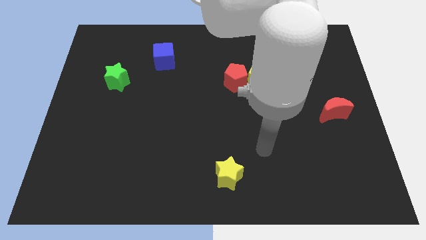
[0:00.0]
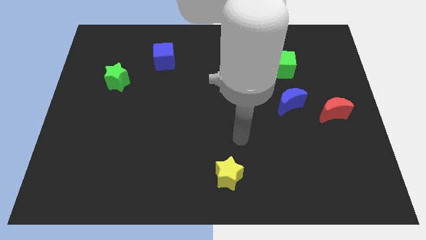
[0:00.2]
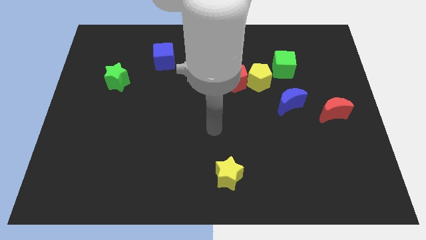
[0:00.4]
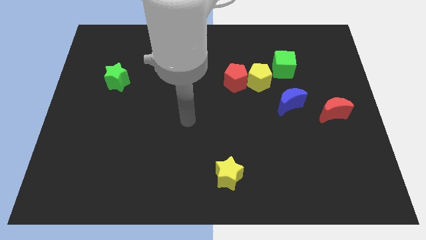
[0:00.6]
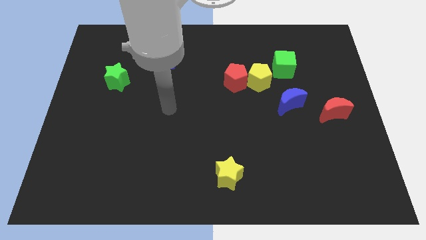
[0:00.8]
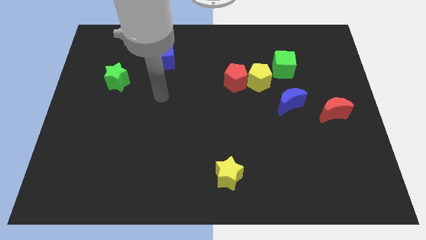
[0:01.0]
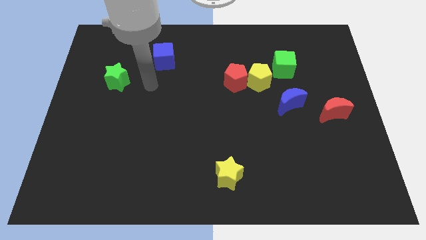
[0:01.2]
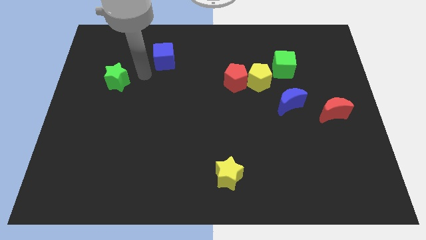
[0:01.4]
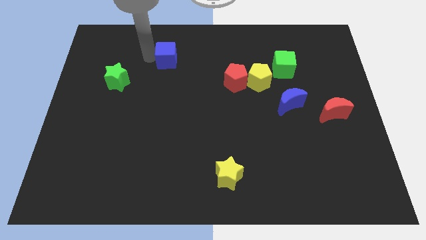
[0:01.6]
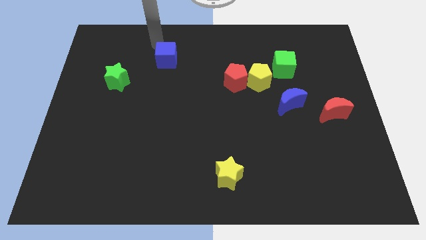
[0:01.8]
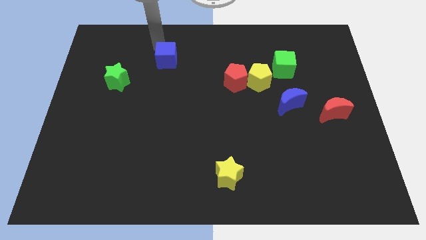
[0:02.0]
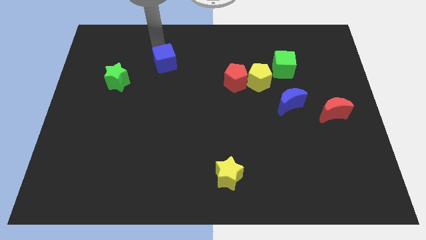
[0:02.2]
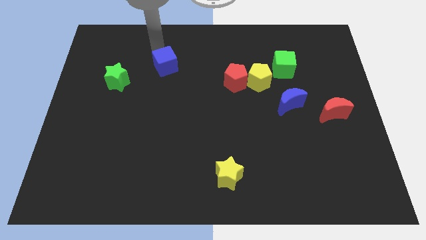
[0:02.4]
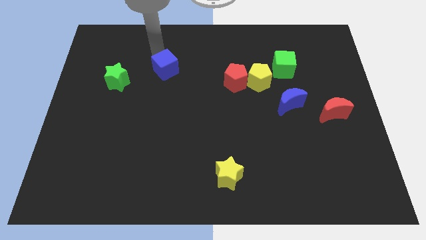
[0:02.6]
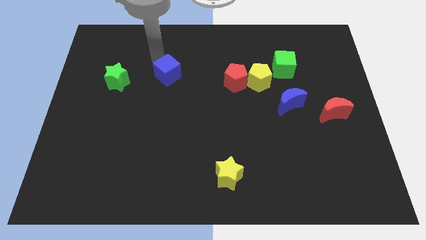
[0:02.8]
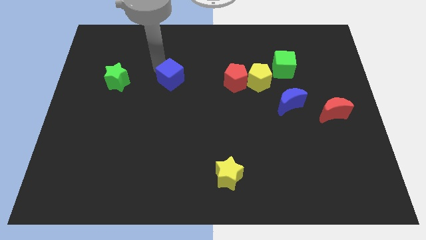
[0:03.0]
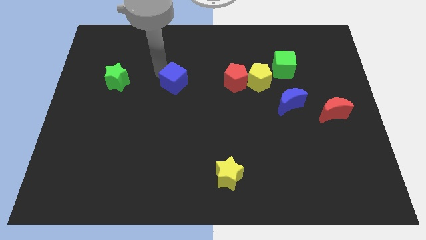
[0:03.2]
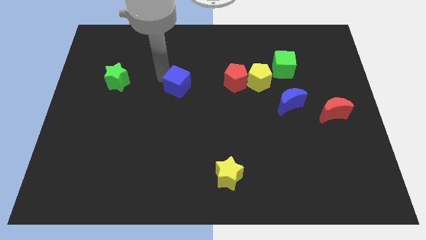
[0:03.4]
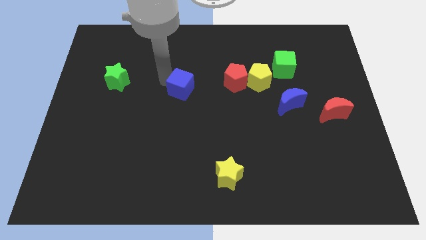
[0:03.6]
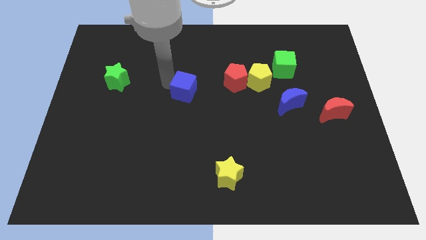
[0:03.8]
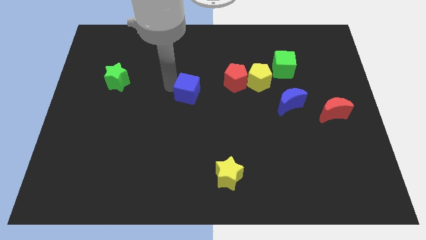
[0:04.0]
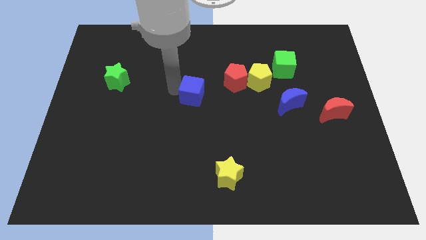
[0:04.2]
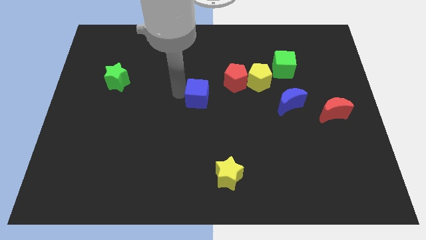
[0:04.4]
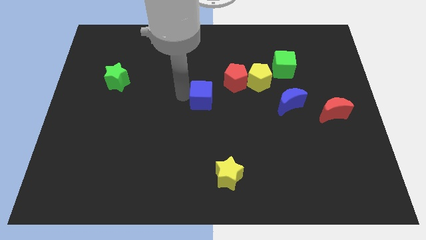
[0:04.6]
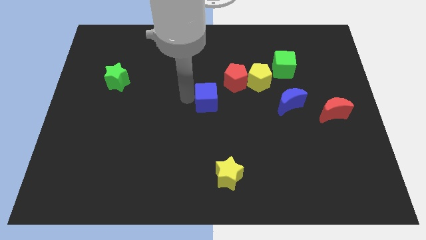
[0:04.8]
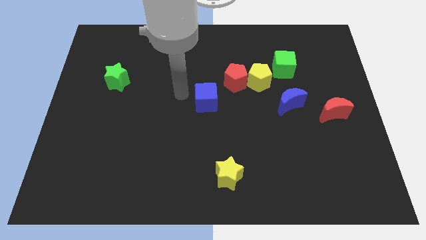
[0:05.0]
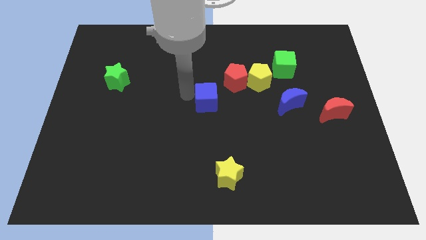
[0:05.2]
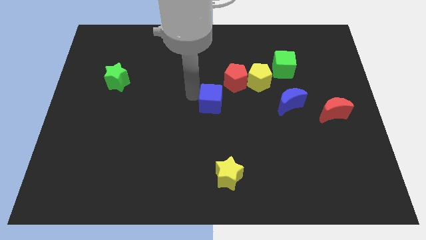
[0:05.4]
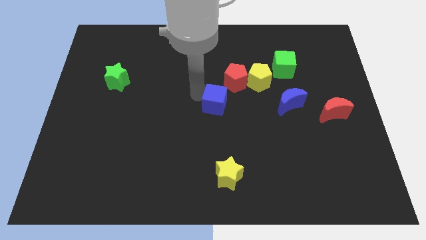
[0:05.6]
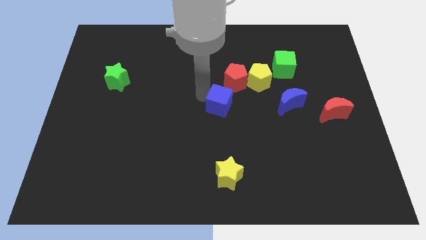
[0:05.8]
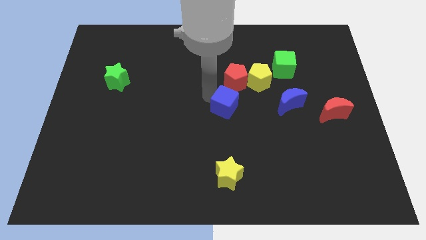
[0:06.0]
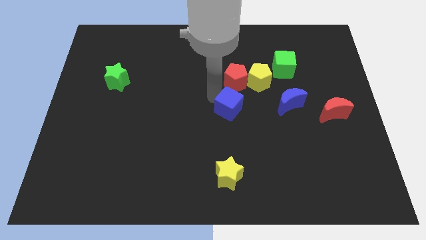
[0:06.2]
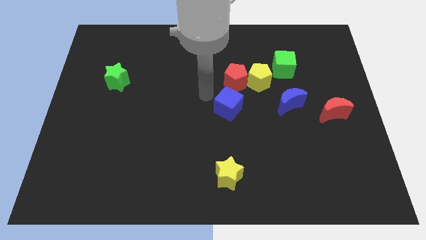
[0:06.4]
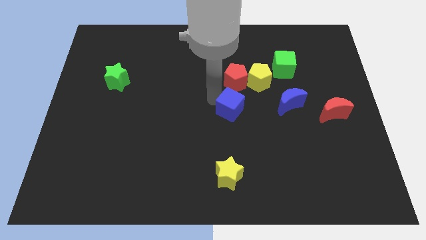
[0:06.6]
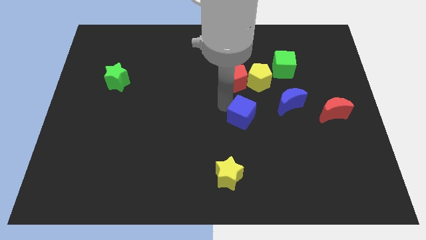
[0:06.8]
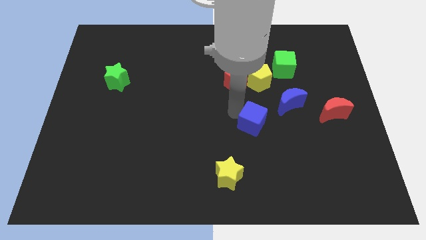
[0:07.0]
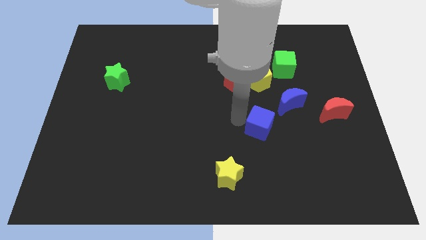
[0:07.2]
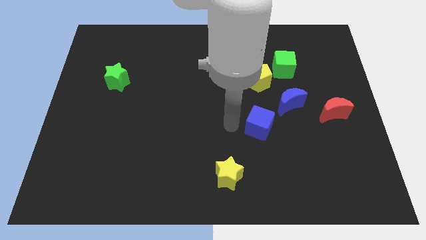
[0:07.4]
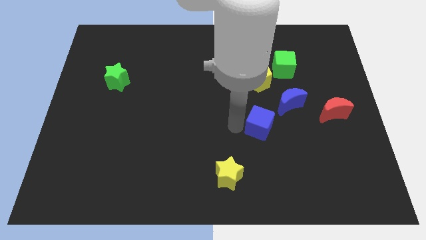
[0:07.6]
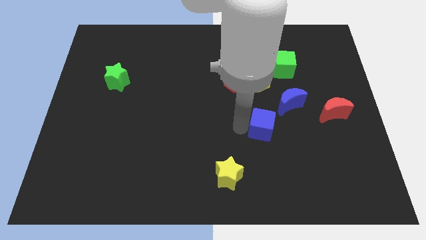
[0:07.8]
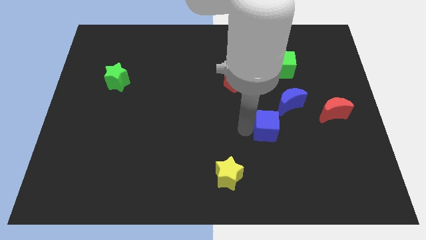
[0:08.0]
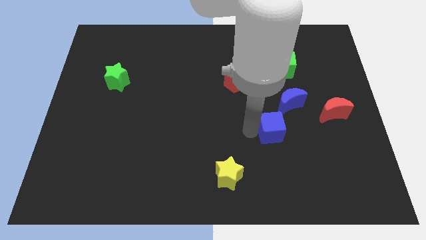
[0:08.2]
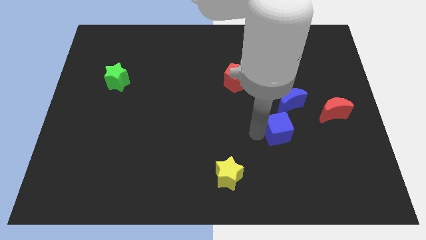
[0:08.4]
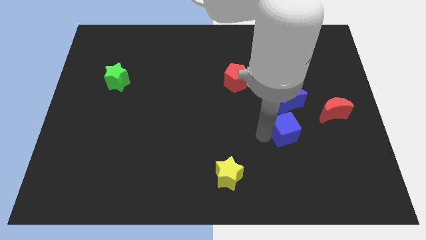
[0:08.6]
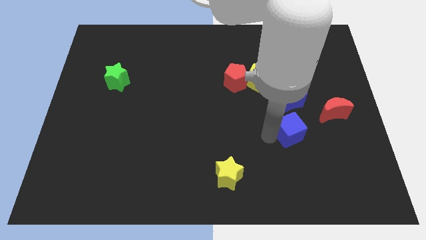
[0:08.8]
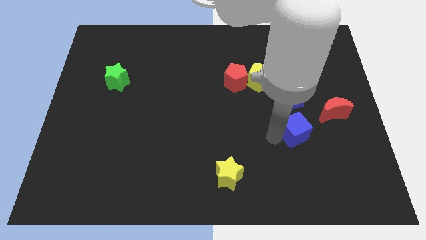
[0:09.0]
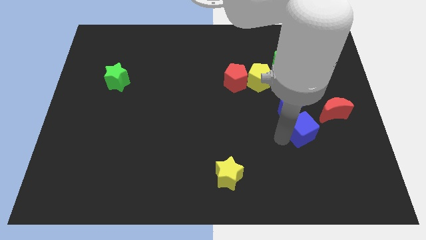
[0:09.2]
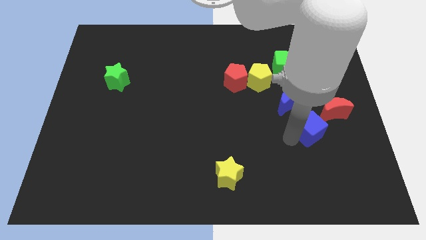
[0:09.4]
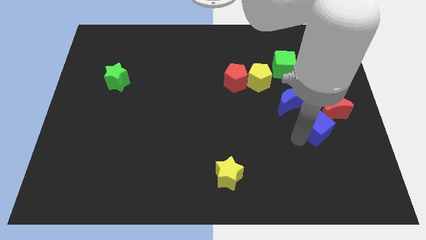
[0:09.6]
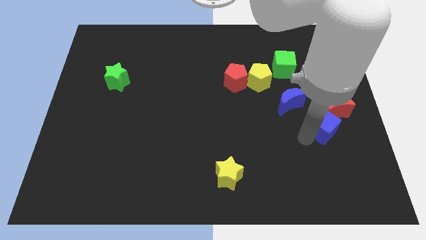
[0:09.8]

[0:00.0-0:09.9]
push the blue cube to the red moon

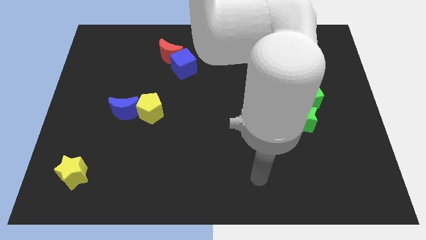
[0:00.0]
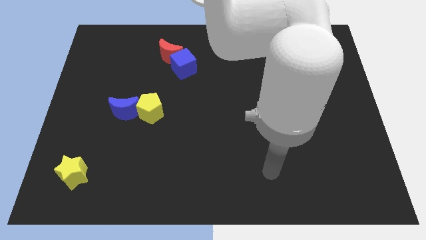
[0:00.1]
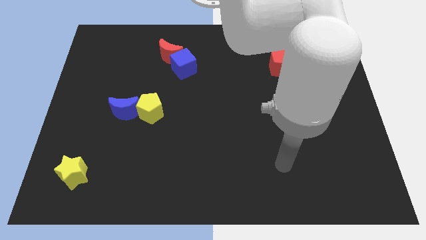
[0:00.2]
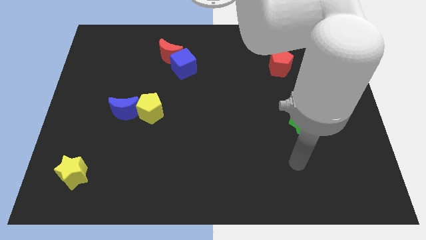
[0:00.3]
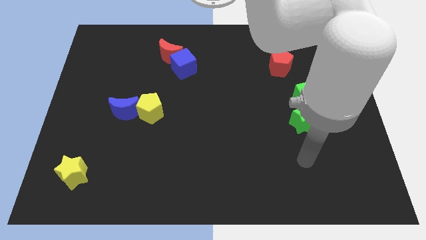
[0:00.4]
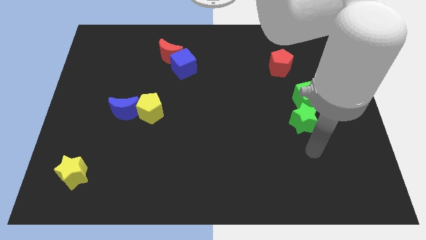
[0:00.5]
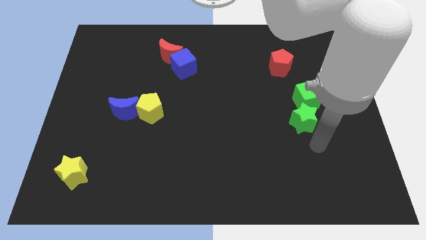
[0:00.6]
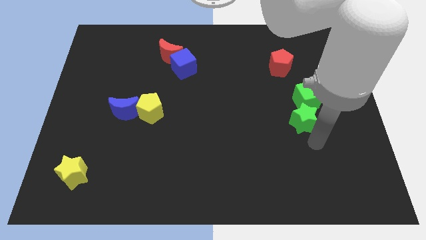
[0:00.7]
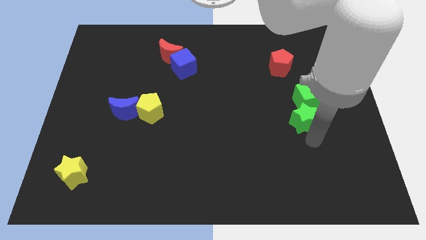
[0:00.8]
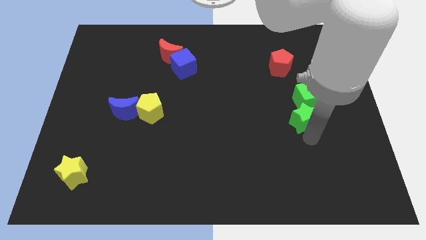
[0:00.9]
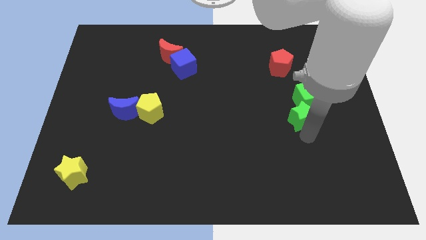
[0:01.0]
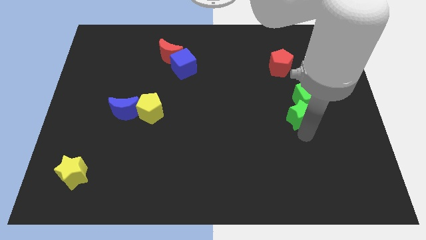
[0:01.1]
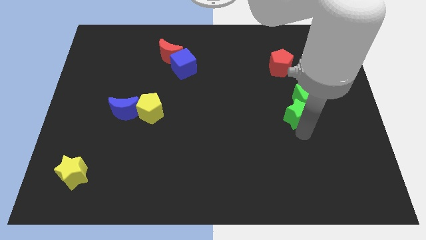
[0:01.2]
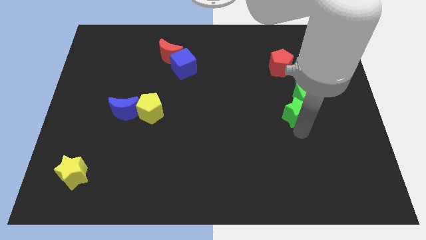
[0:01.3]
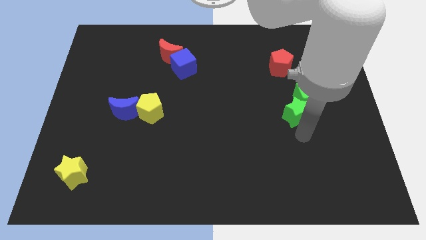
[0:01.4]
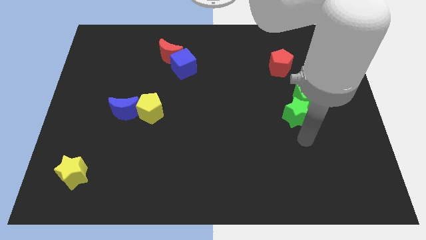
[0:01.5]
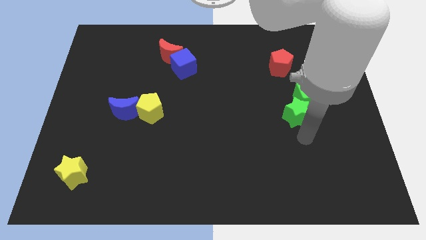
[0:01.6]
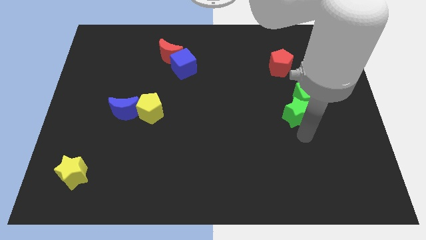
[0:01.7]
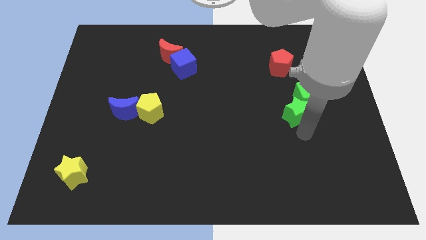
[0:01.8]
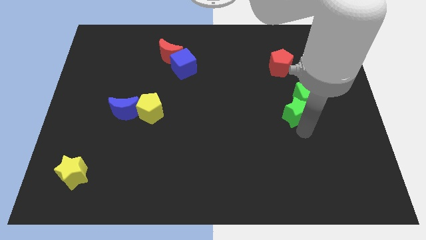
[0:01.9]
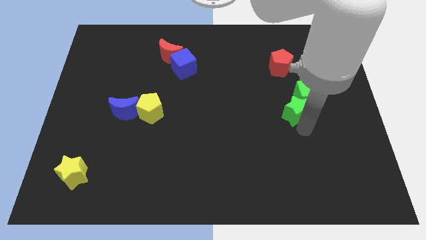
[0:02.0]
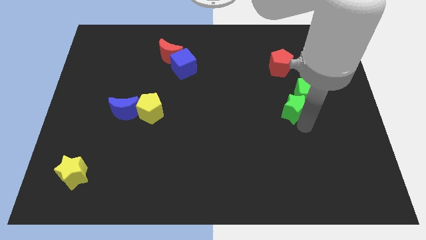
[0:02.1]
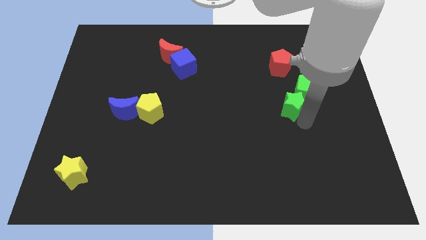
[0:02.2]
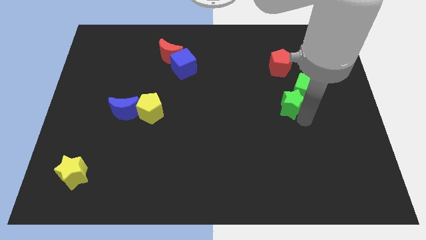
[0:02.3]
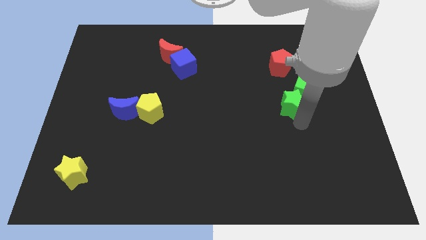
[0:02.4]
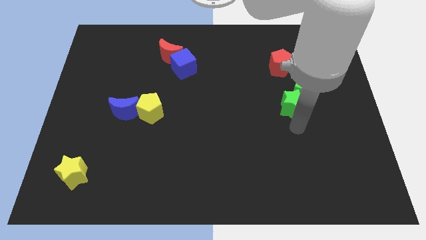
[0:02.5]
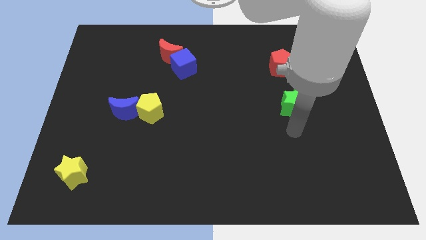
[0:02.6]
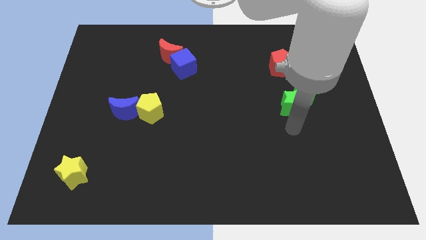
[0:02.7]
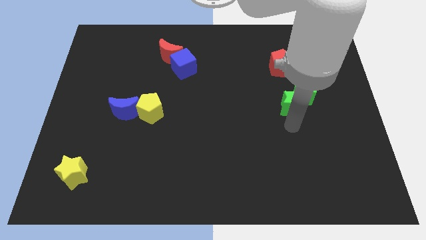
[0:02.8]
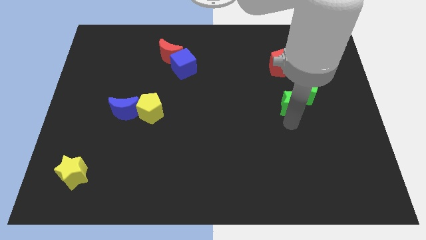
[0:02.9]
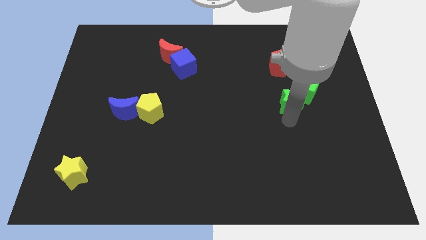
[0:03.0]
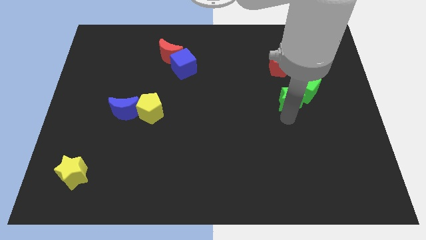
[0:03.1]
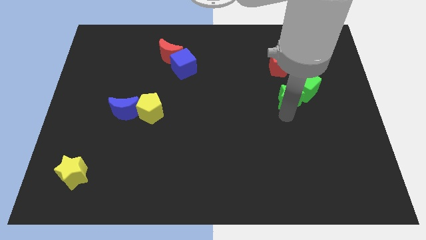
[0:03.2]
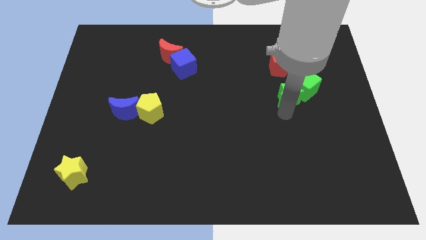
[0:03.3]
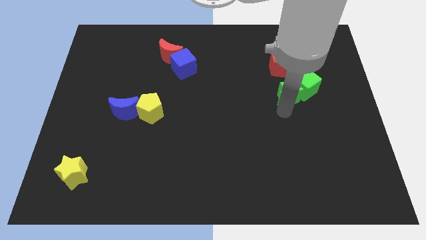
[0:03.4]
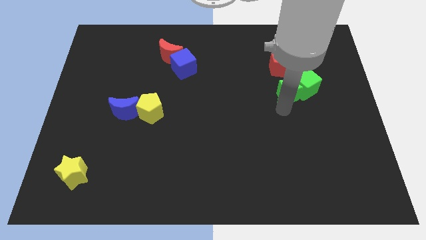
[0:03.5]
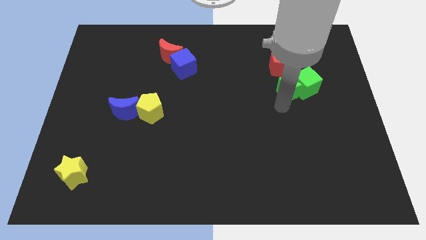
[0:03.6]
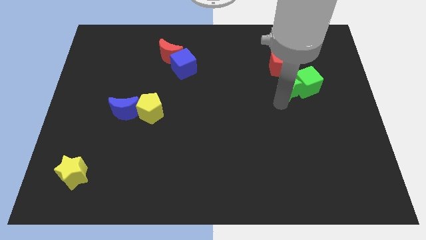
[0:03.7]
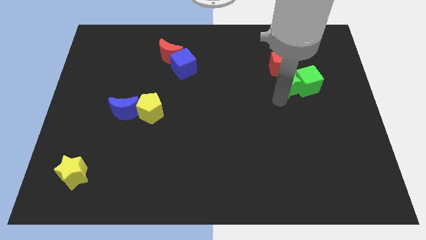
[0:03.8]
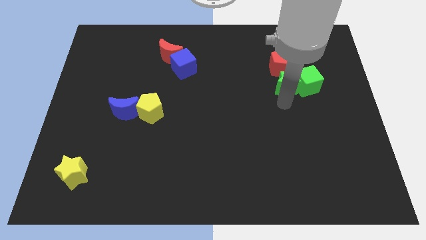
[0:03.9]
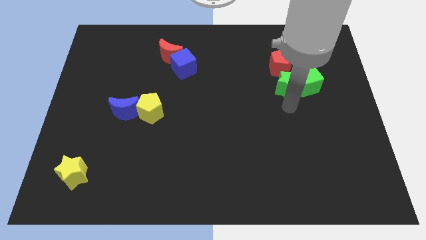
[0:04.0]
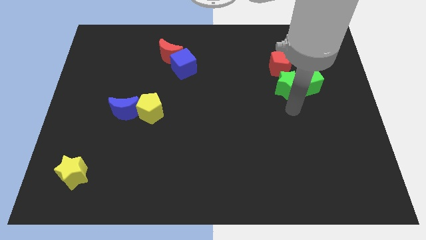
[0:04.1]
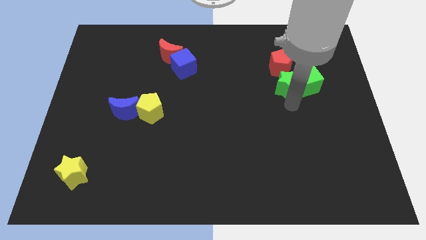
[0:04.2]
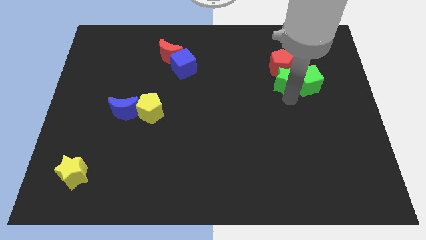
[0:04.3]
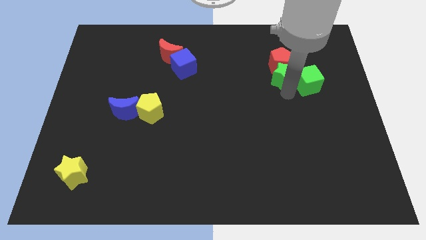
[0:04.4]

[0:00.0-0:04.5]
put the green star close to the red pentagon
